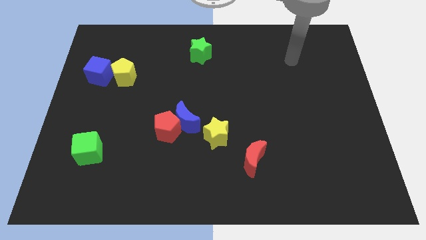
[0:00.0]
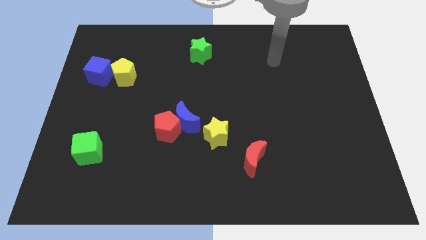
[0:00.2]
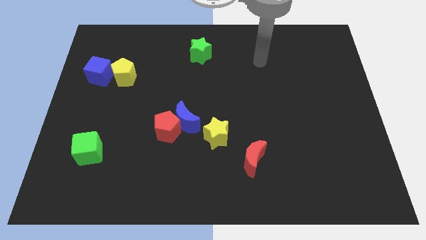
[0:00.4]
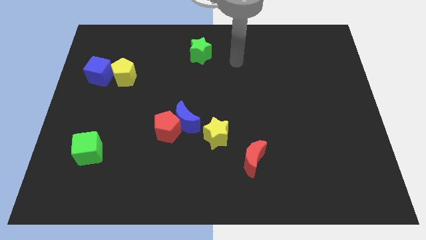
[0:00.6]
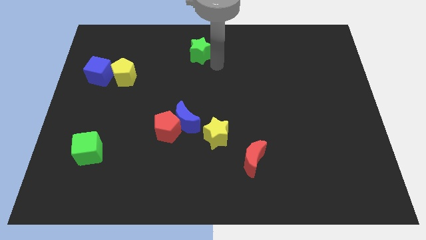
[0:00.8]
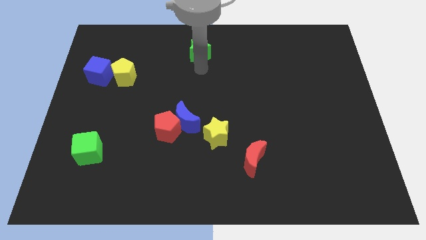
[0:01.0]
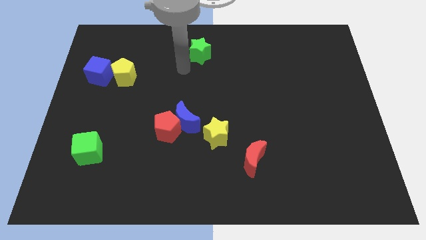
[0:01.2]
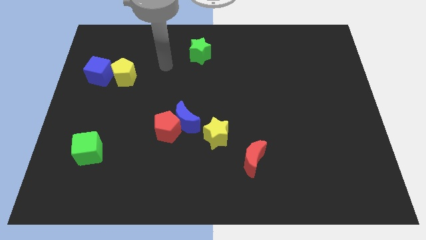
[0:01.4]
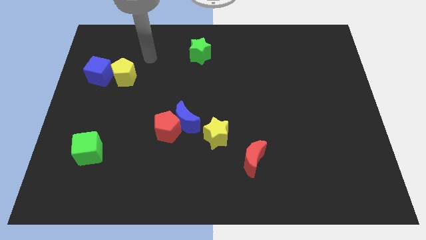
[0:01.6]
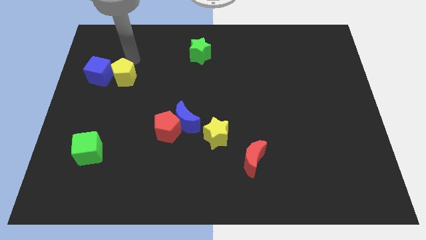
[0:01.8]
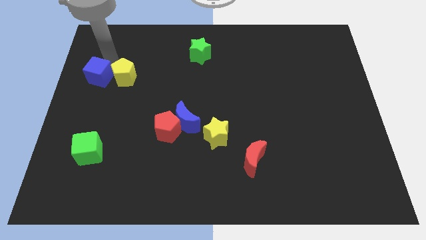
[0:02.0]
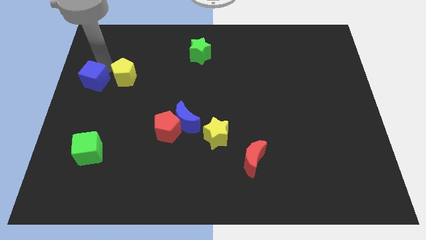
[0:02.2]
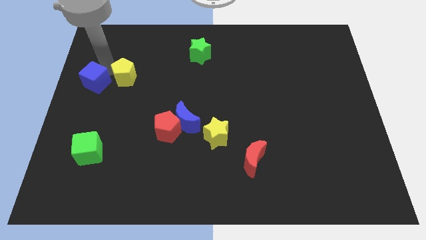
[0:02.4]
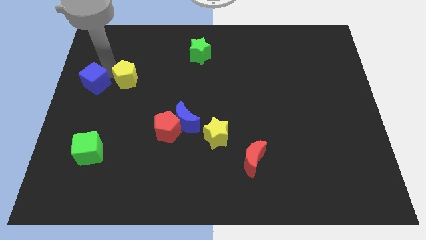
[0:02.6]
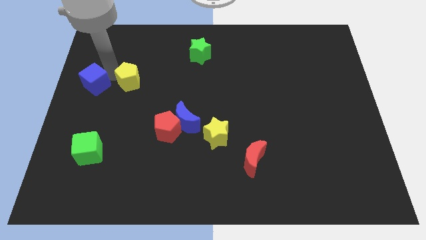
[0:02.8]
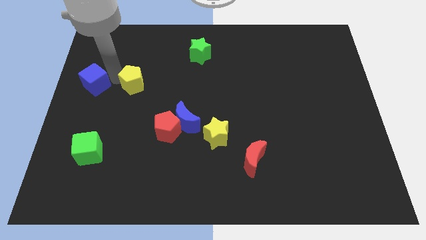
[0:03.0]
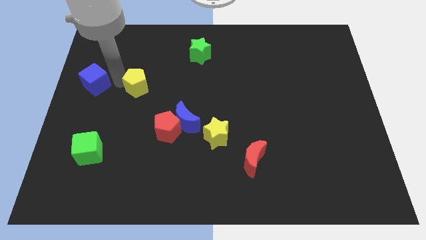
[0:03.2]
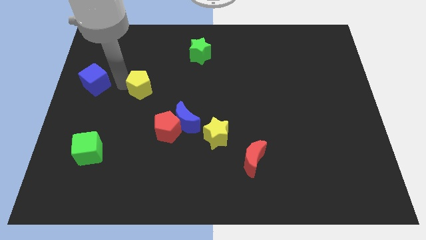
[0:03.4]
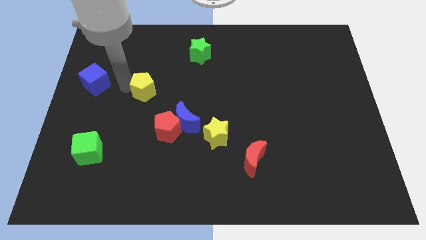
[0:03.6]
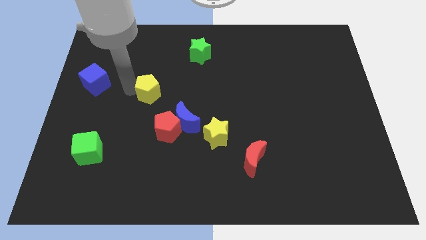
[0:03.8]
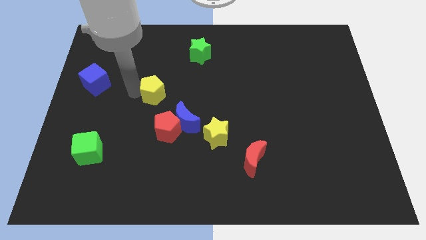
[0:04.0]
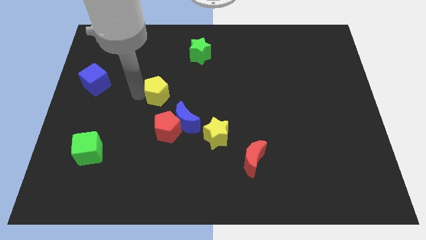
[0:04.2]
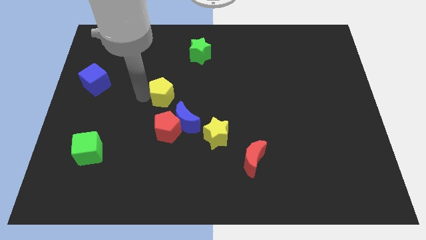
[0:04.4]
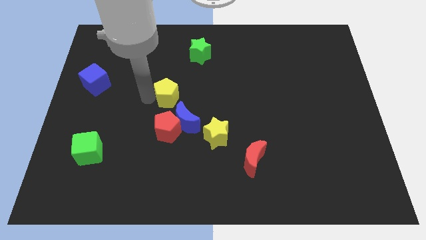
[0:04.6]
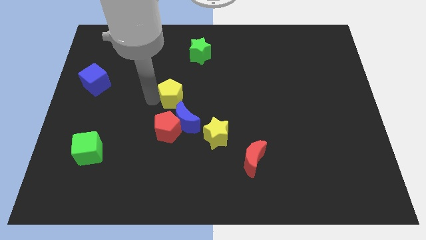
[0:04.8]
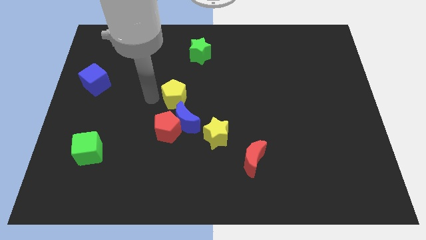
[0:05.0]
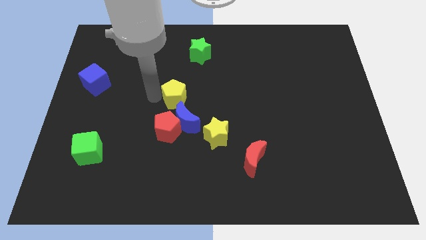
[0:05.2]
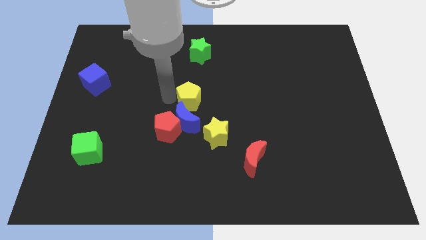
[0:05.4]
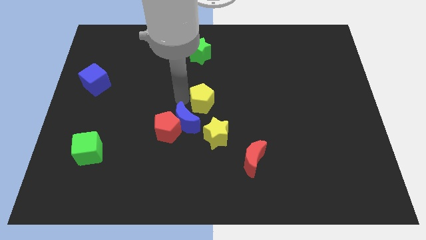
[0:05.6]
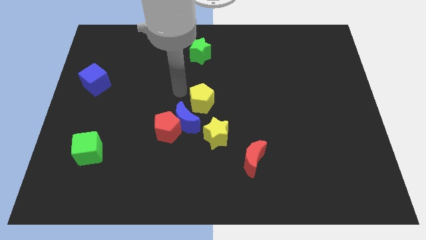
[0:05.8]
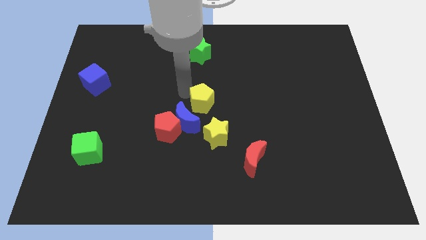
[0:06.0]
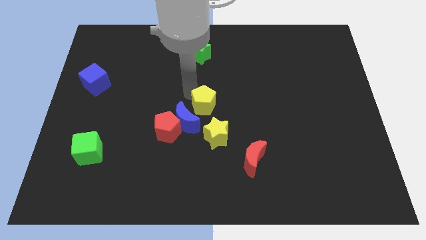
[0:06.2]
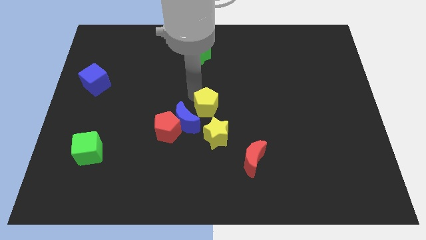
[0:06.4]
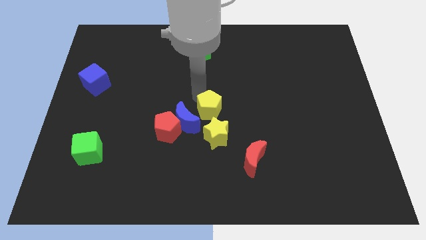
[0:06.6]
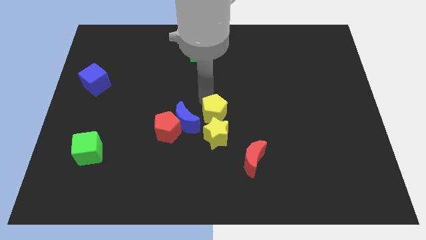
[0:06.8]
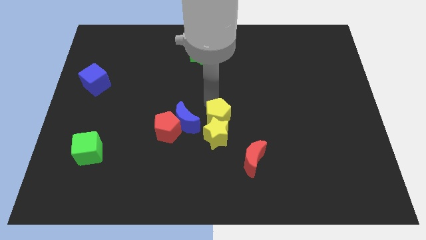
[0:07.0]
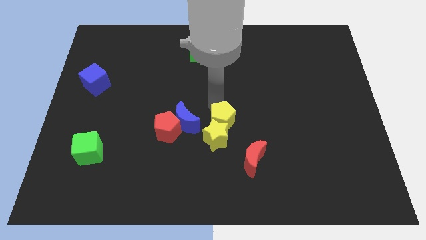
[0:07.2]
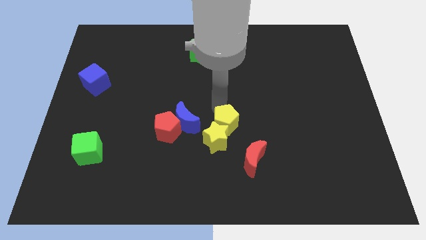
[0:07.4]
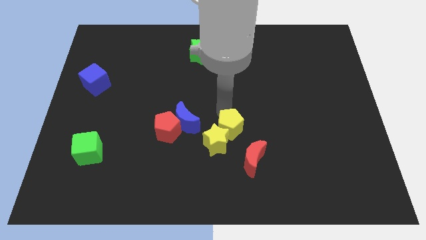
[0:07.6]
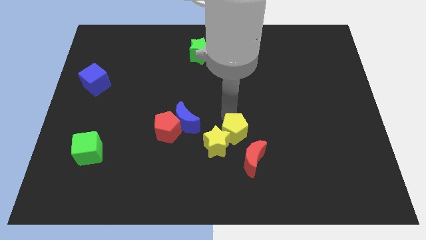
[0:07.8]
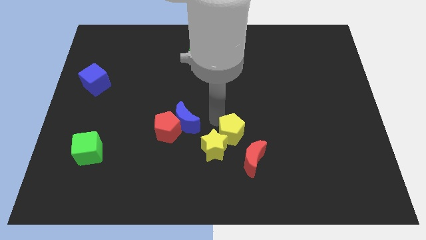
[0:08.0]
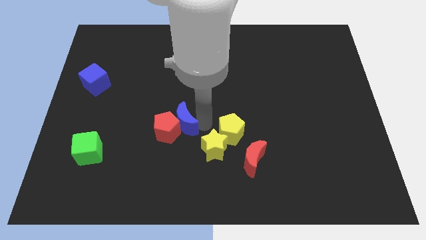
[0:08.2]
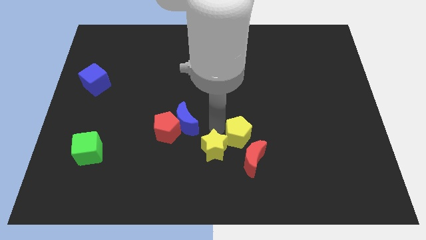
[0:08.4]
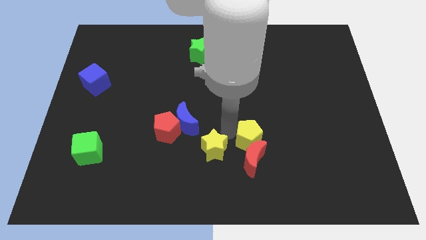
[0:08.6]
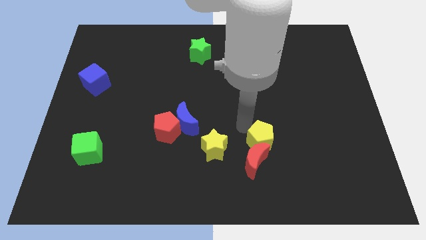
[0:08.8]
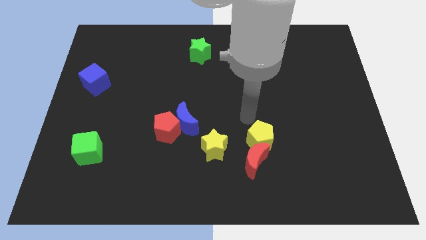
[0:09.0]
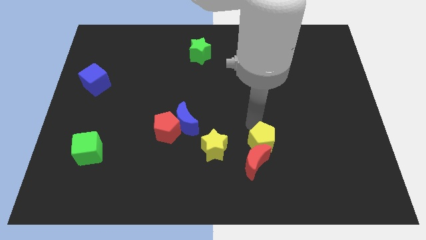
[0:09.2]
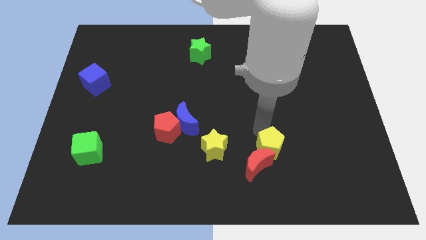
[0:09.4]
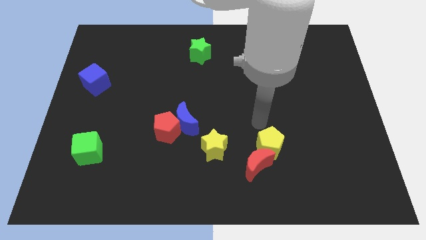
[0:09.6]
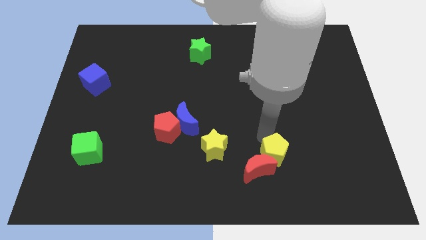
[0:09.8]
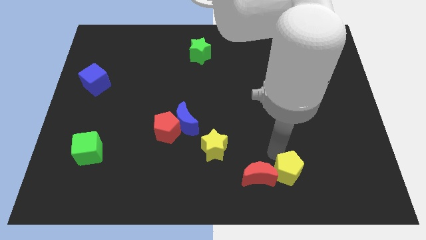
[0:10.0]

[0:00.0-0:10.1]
put the yellow pentagon to the bottom right side of the red moon
